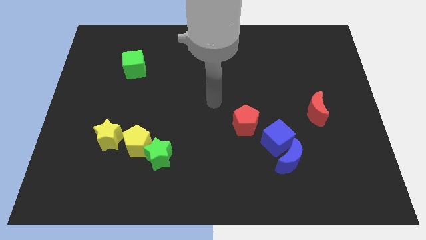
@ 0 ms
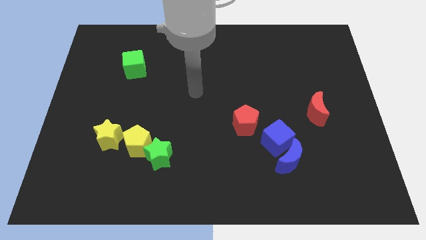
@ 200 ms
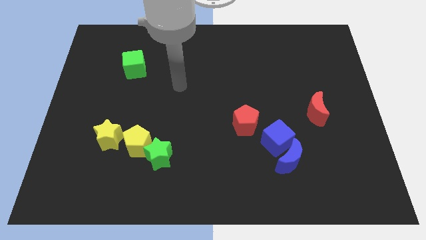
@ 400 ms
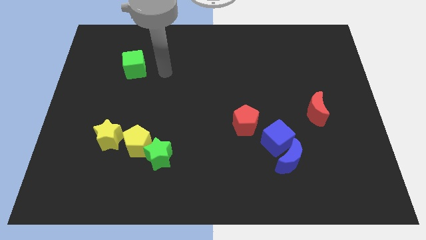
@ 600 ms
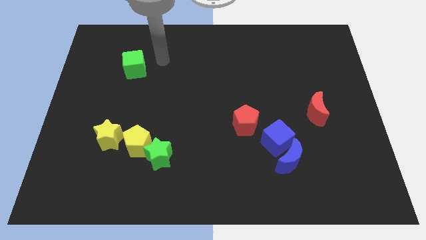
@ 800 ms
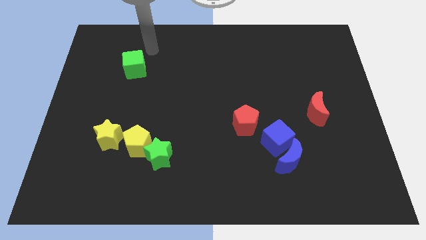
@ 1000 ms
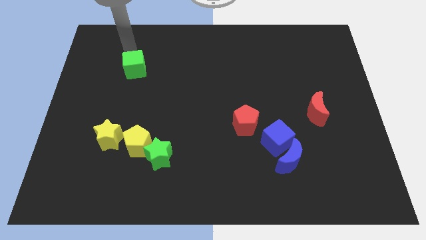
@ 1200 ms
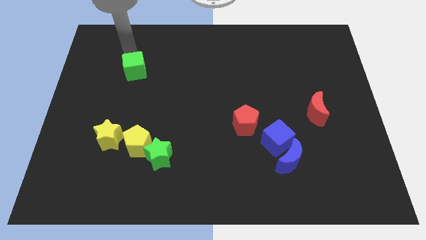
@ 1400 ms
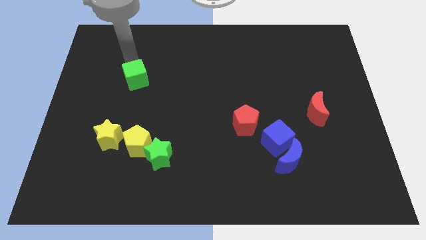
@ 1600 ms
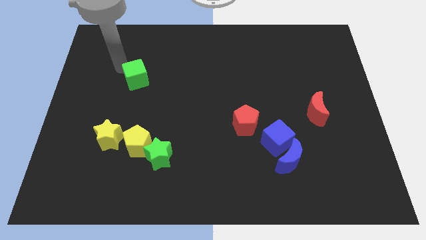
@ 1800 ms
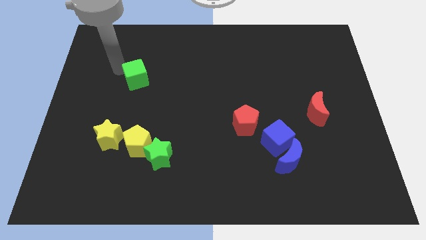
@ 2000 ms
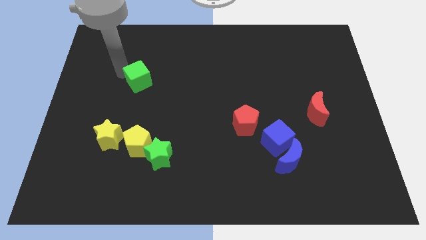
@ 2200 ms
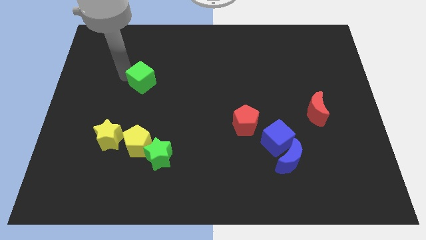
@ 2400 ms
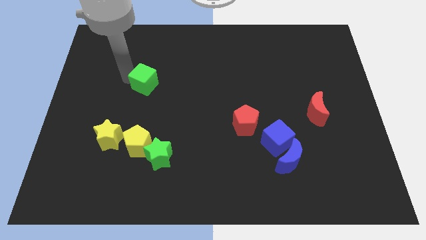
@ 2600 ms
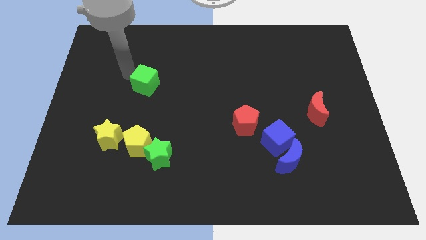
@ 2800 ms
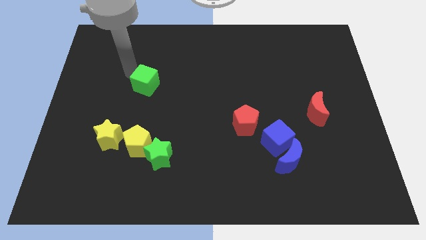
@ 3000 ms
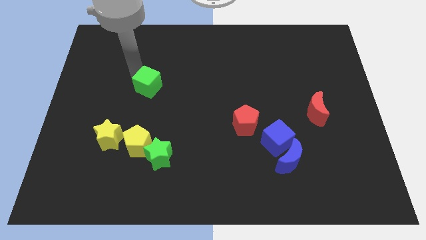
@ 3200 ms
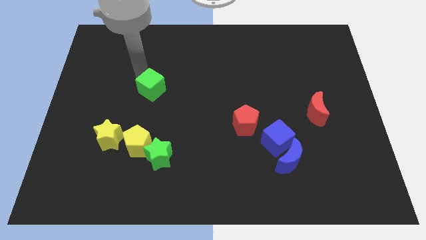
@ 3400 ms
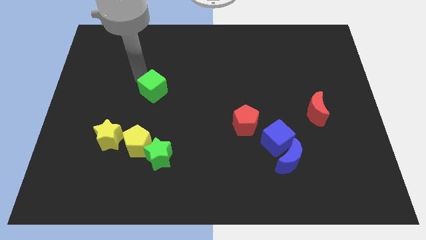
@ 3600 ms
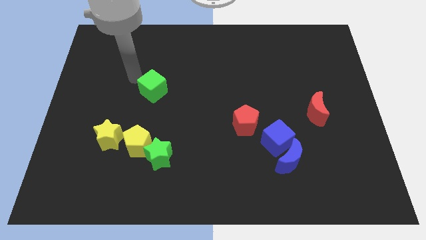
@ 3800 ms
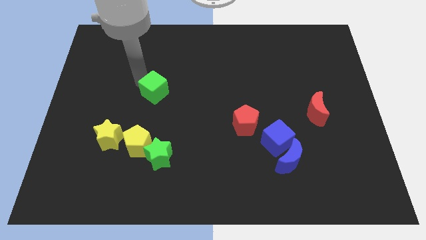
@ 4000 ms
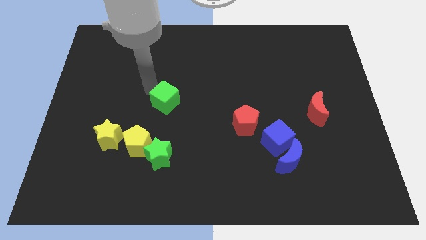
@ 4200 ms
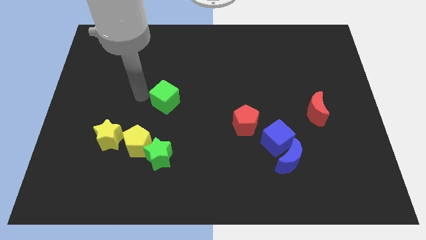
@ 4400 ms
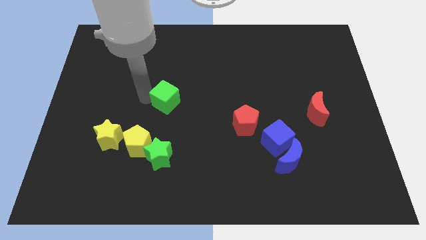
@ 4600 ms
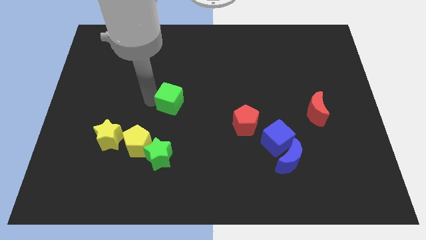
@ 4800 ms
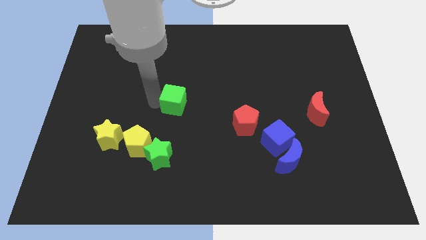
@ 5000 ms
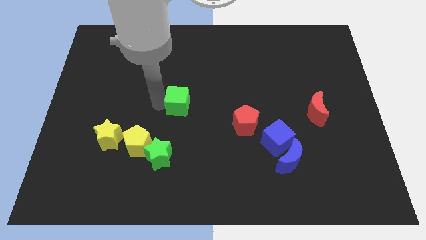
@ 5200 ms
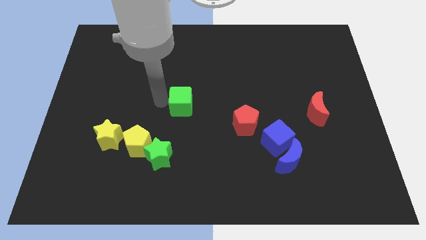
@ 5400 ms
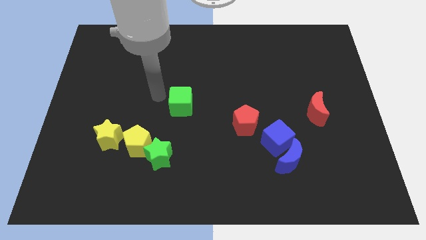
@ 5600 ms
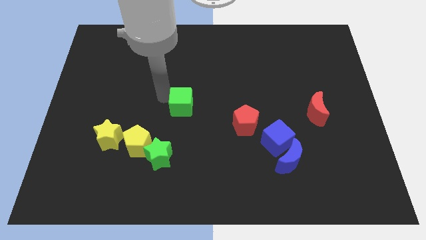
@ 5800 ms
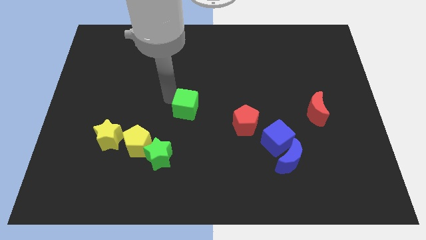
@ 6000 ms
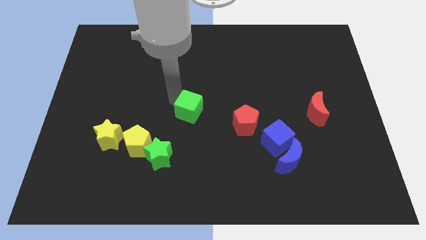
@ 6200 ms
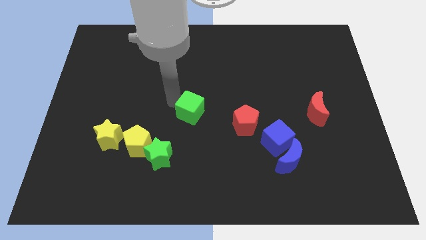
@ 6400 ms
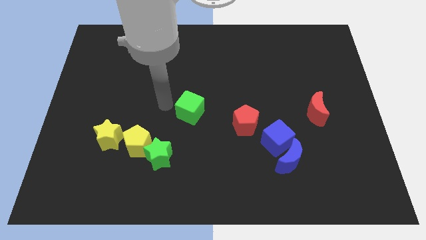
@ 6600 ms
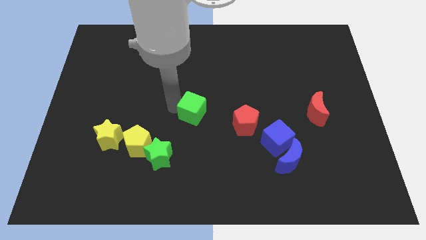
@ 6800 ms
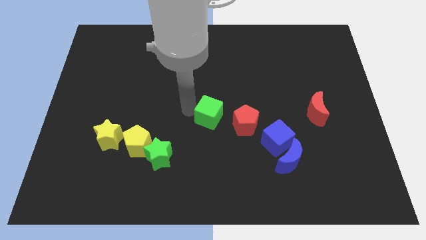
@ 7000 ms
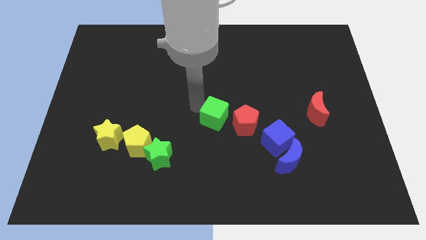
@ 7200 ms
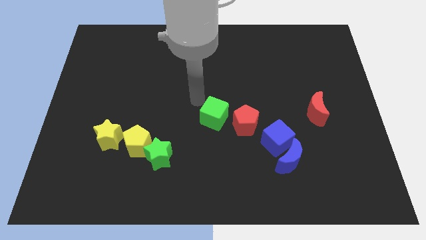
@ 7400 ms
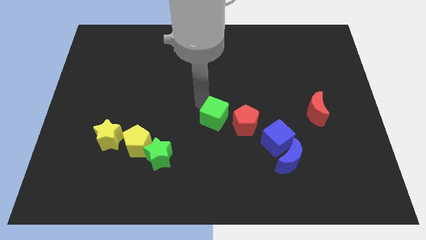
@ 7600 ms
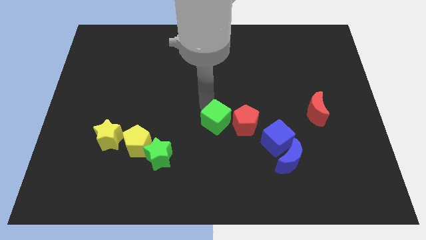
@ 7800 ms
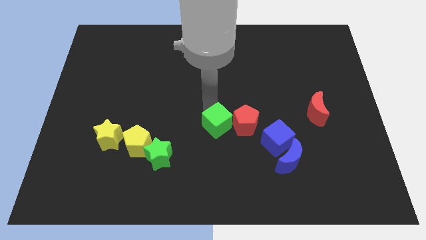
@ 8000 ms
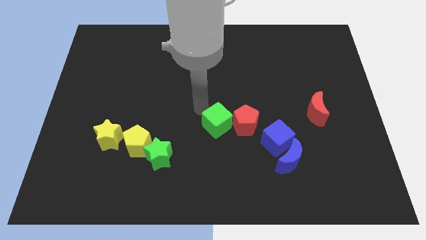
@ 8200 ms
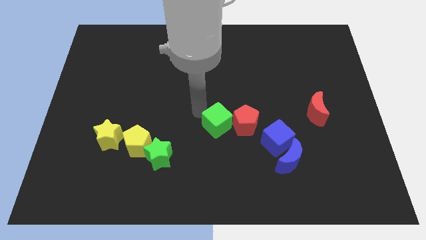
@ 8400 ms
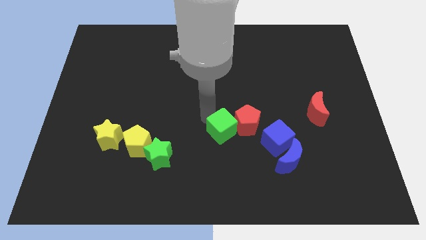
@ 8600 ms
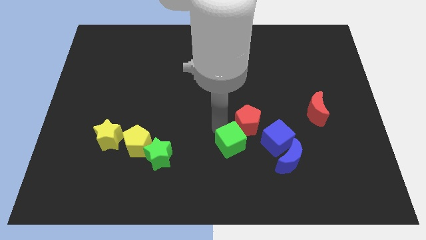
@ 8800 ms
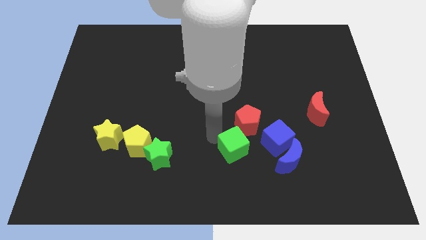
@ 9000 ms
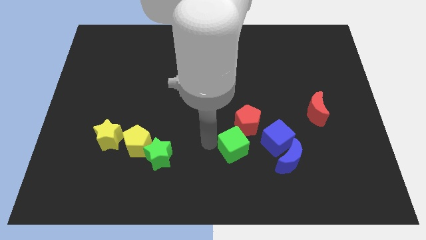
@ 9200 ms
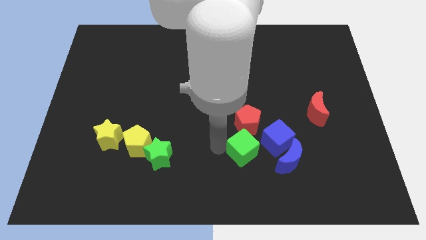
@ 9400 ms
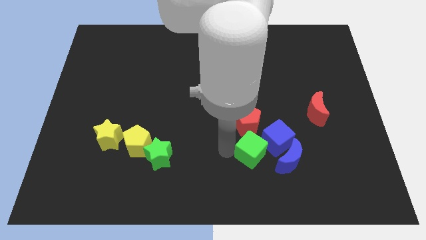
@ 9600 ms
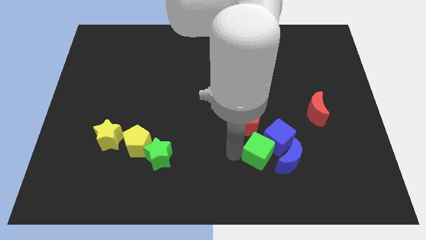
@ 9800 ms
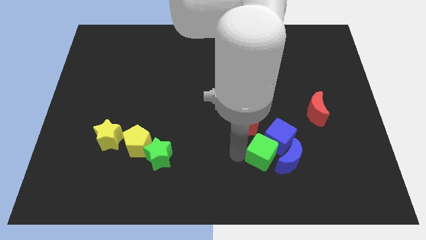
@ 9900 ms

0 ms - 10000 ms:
push the green cube to the blue moon

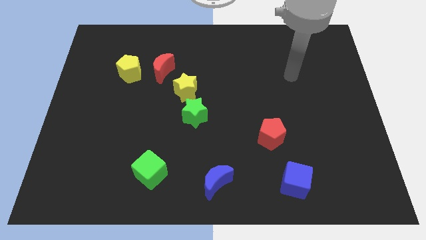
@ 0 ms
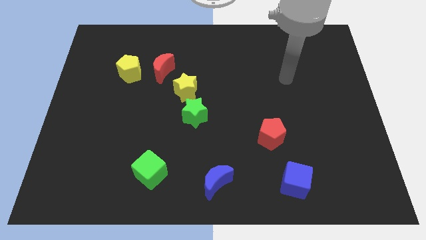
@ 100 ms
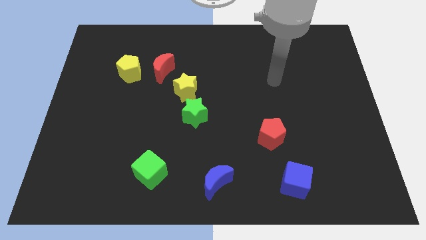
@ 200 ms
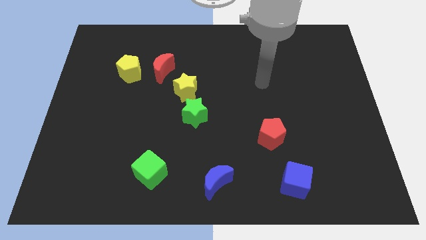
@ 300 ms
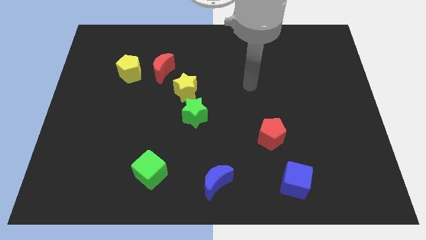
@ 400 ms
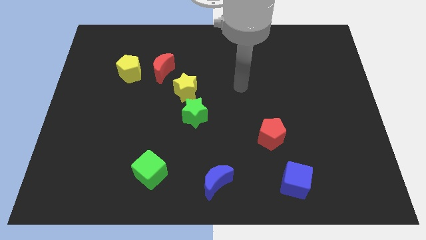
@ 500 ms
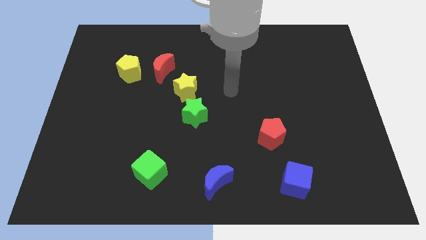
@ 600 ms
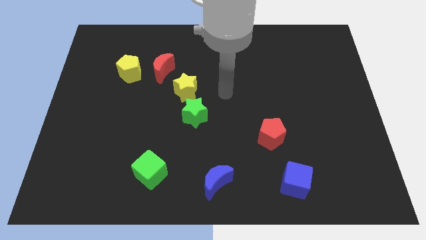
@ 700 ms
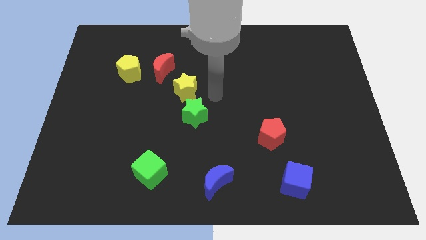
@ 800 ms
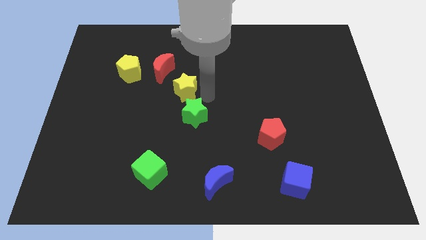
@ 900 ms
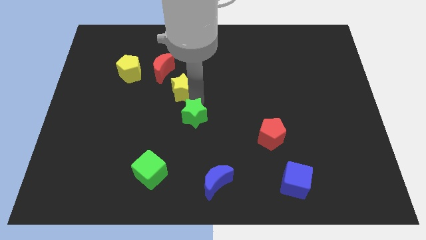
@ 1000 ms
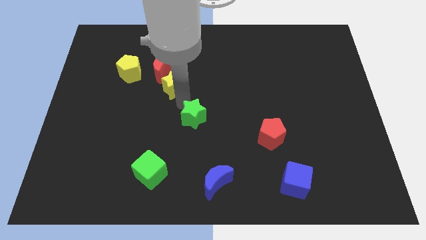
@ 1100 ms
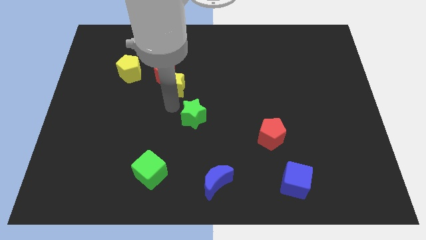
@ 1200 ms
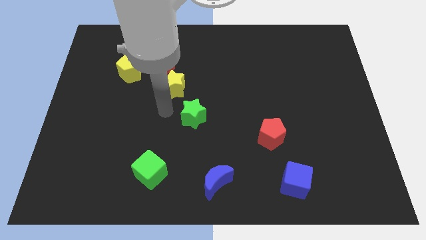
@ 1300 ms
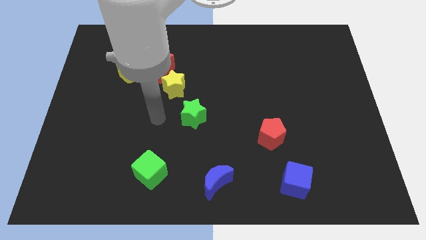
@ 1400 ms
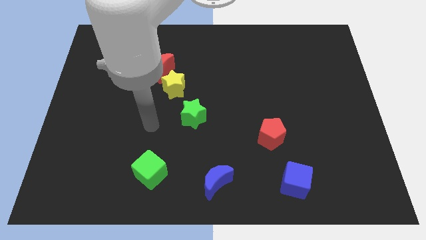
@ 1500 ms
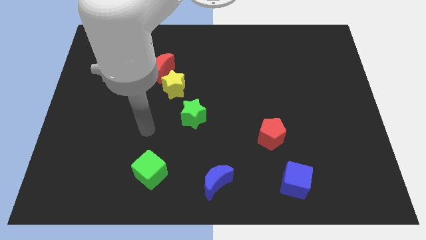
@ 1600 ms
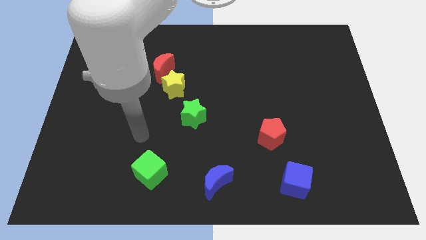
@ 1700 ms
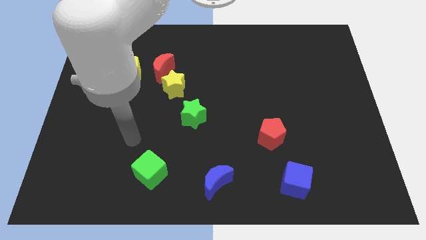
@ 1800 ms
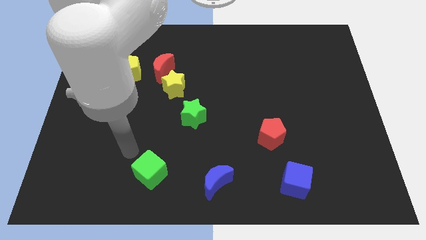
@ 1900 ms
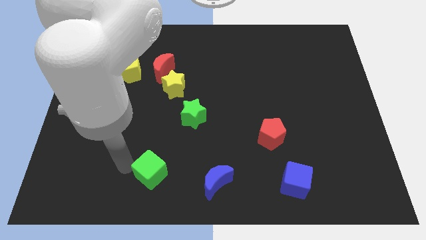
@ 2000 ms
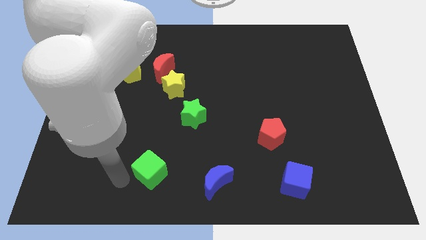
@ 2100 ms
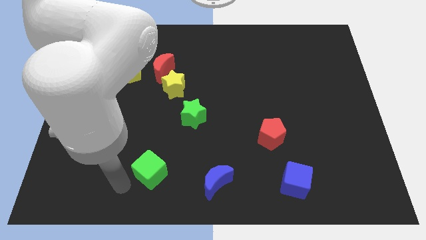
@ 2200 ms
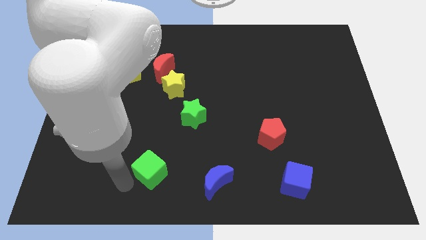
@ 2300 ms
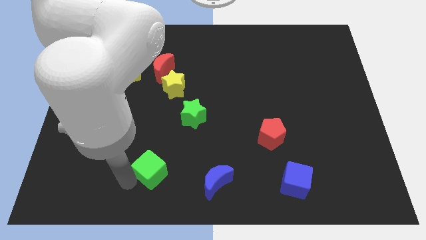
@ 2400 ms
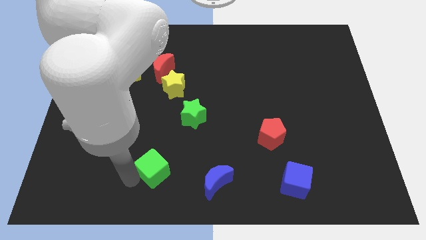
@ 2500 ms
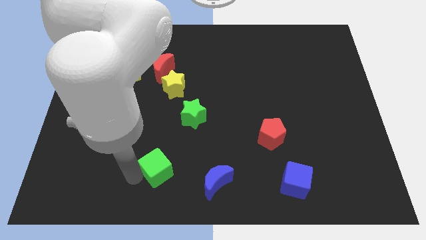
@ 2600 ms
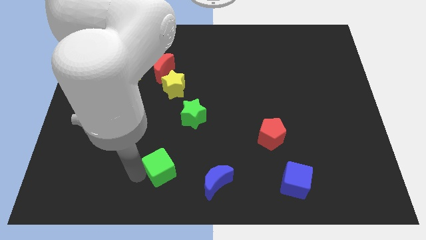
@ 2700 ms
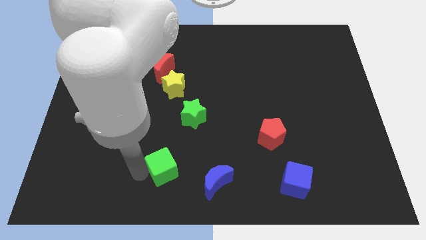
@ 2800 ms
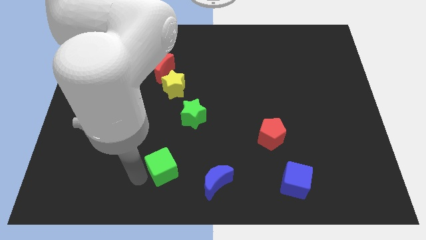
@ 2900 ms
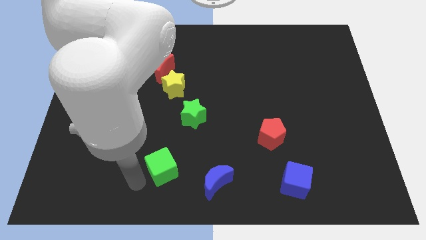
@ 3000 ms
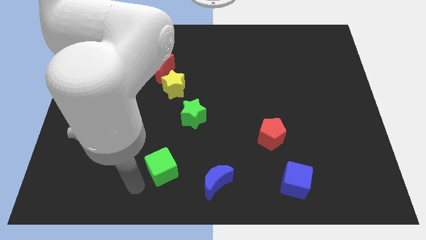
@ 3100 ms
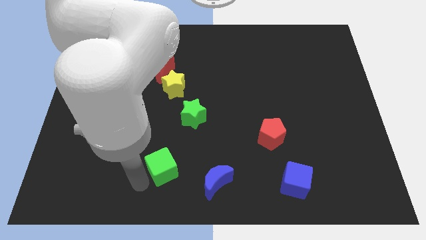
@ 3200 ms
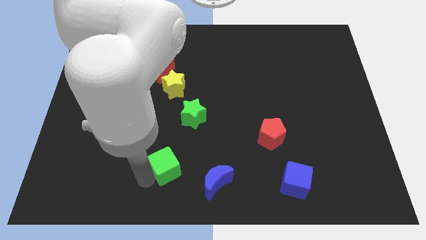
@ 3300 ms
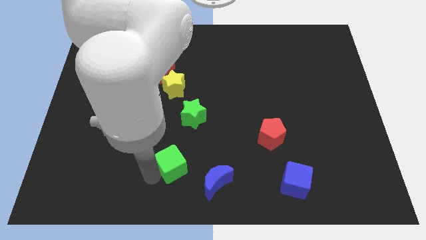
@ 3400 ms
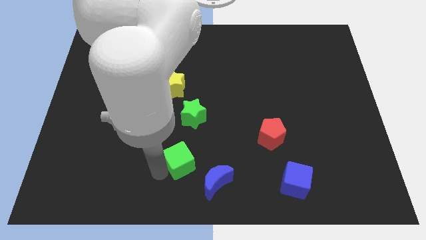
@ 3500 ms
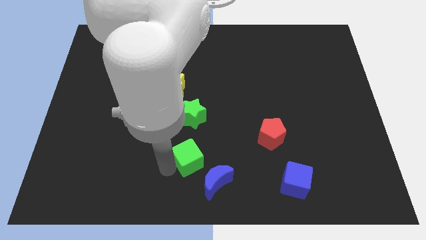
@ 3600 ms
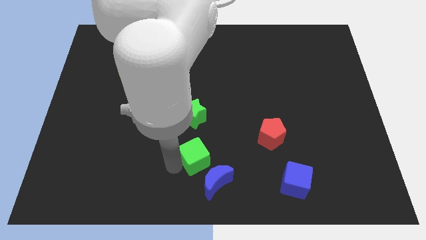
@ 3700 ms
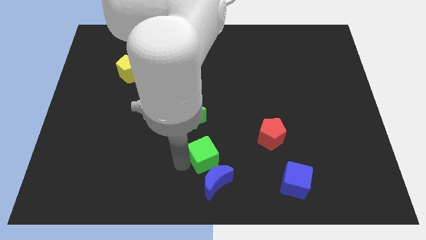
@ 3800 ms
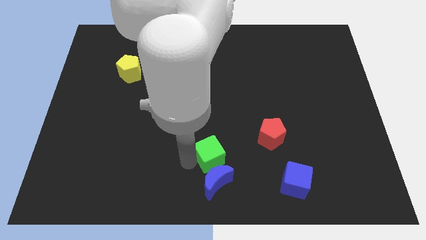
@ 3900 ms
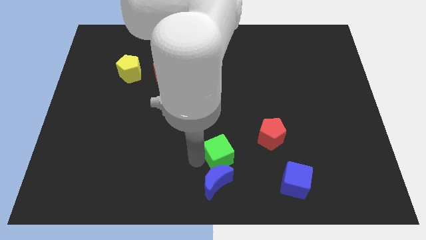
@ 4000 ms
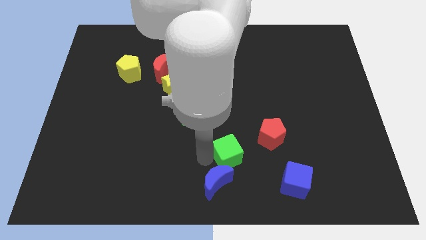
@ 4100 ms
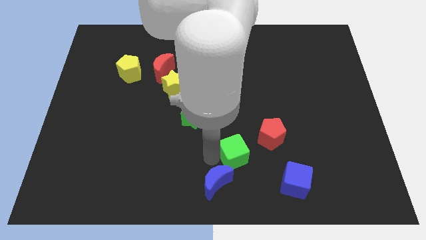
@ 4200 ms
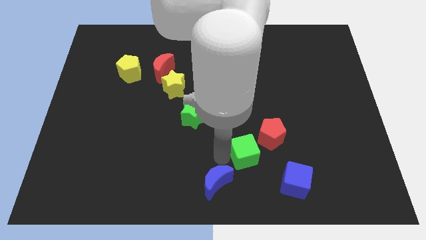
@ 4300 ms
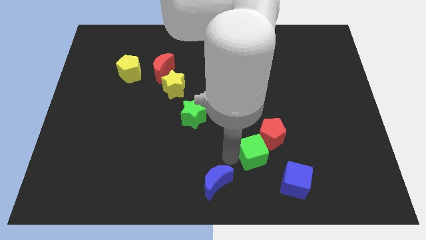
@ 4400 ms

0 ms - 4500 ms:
slide the green cube to the red pentagon
